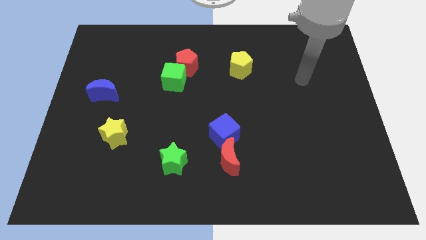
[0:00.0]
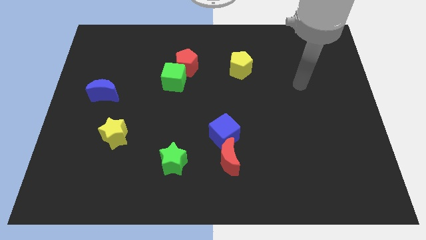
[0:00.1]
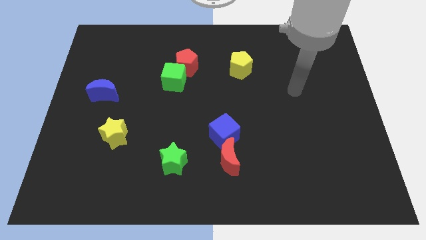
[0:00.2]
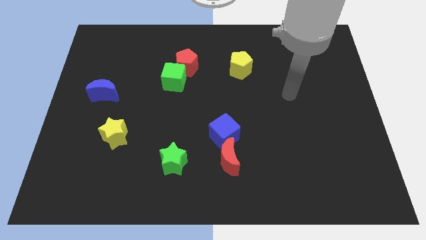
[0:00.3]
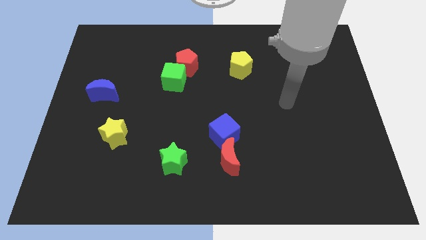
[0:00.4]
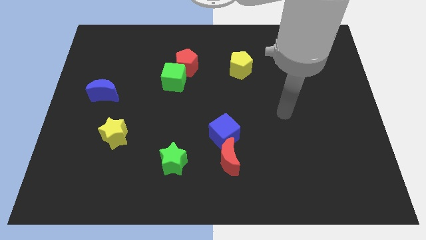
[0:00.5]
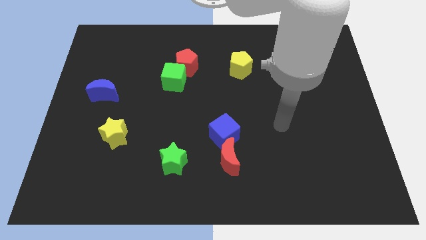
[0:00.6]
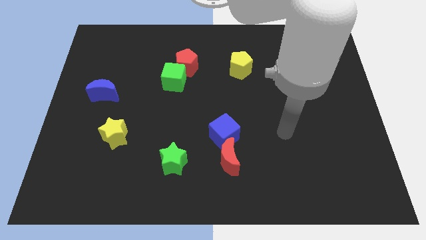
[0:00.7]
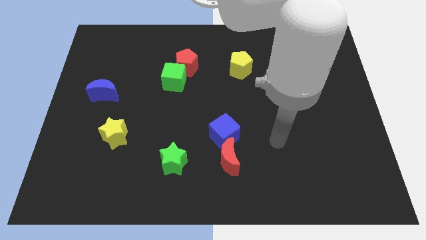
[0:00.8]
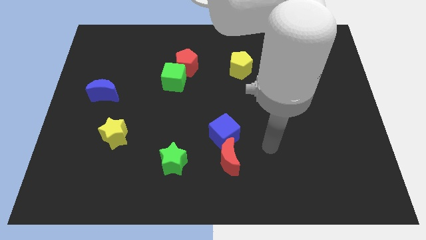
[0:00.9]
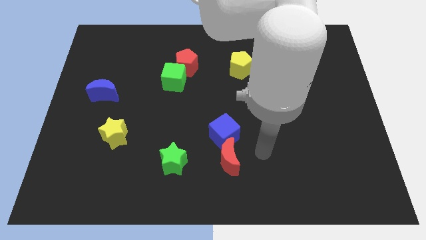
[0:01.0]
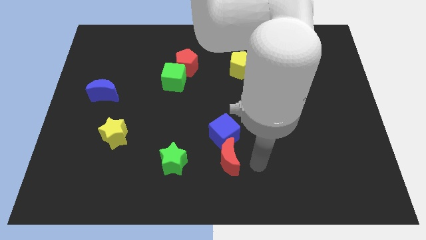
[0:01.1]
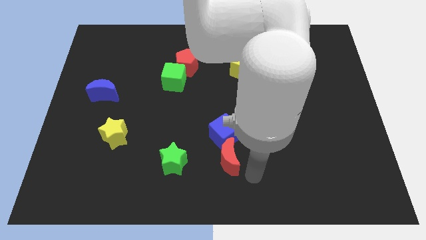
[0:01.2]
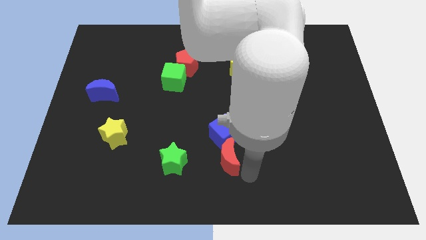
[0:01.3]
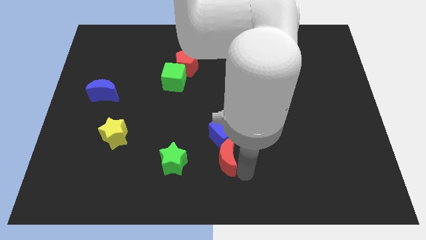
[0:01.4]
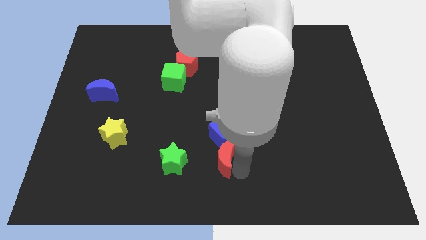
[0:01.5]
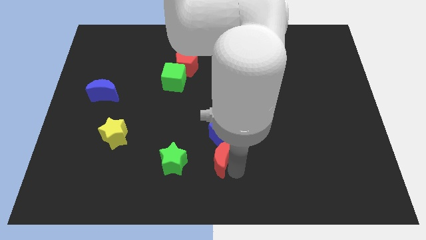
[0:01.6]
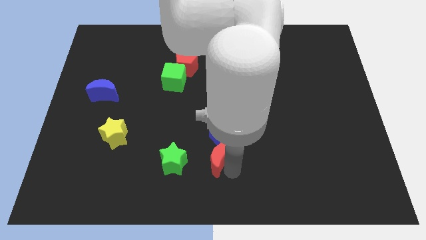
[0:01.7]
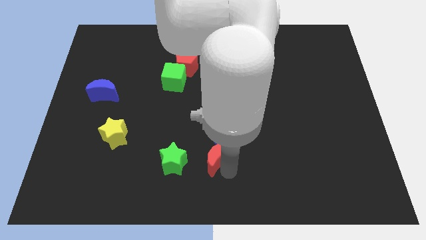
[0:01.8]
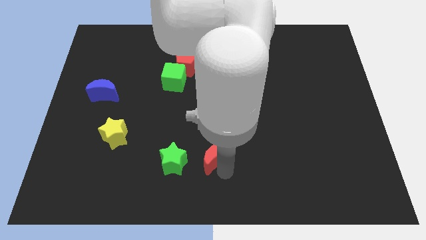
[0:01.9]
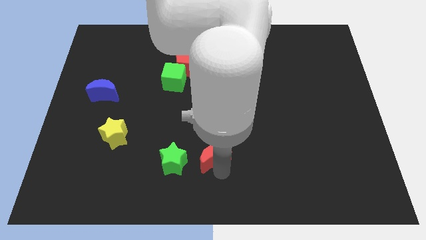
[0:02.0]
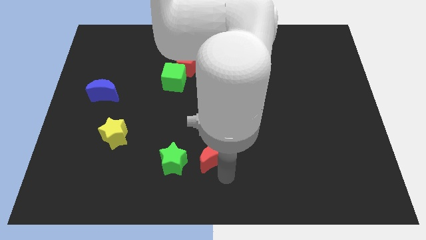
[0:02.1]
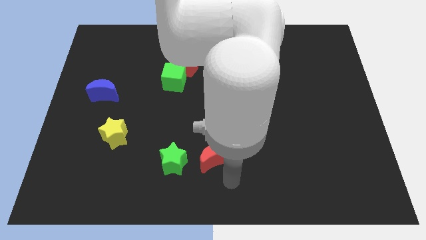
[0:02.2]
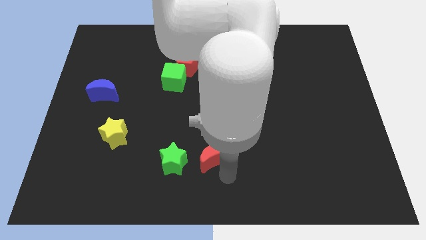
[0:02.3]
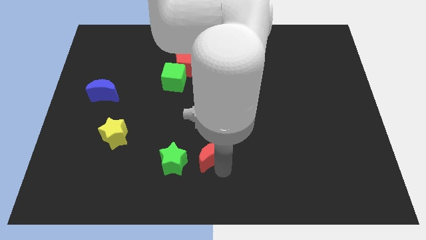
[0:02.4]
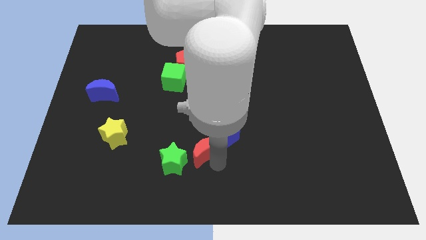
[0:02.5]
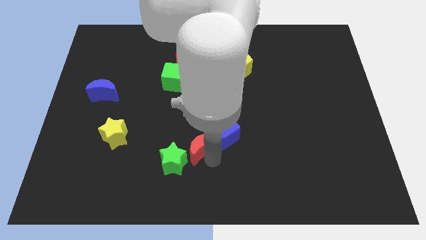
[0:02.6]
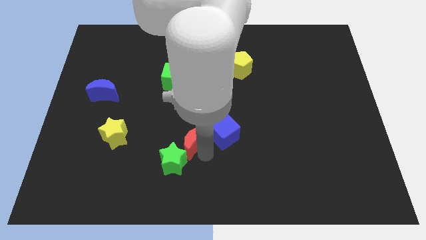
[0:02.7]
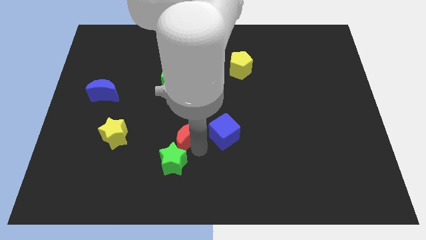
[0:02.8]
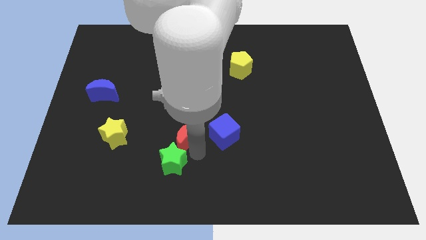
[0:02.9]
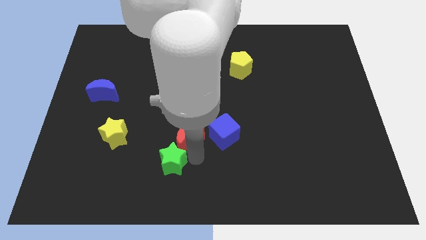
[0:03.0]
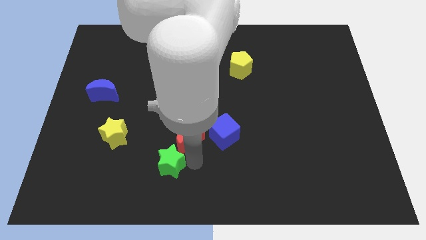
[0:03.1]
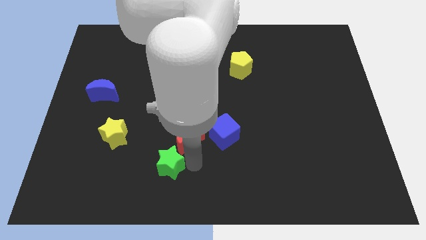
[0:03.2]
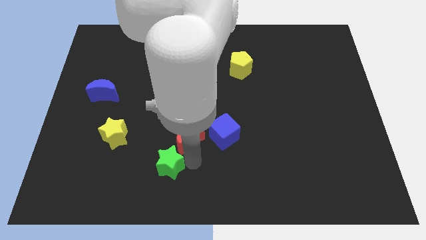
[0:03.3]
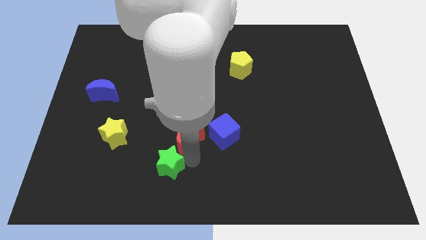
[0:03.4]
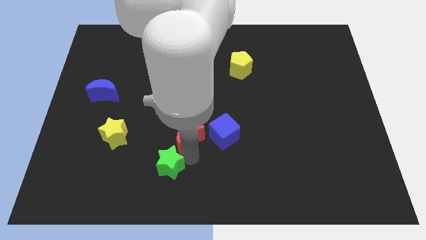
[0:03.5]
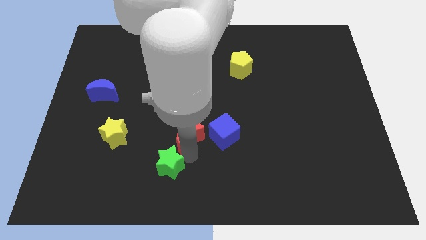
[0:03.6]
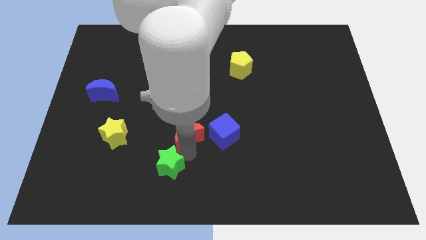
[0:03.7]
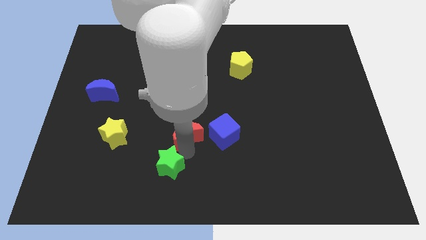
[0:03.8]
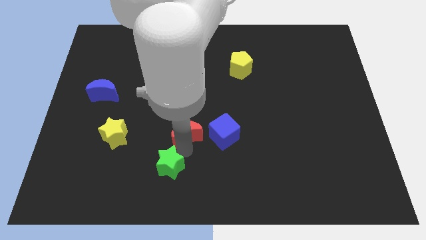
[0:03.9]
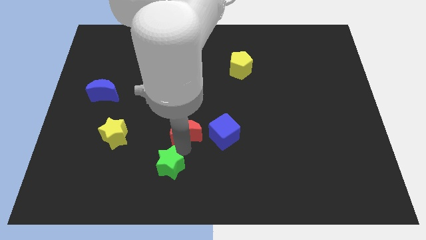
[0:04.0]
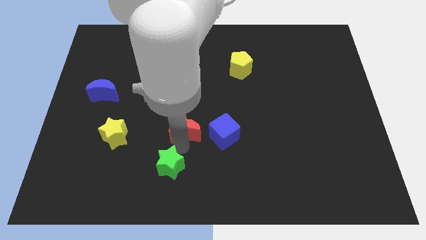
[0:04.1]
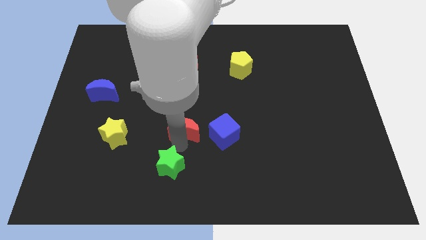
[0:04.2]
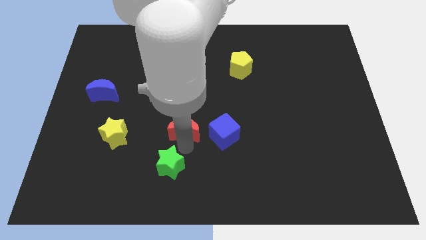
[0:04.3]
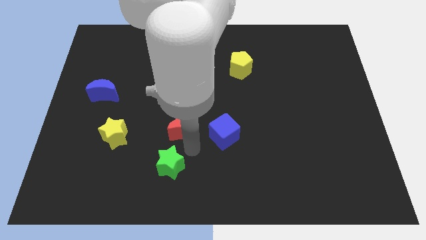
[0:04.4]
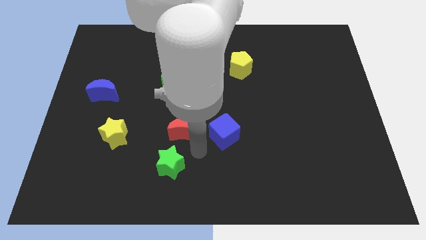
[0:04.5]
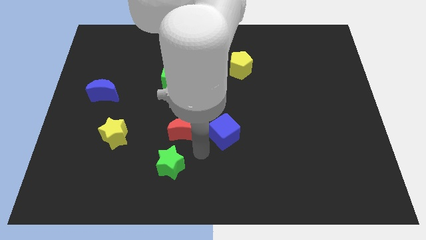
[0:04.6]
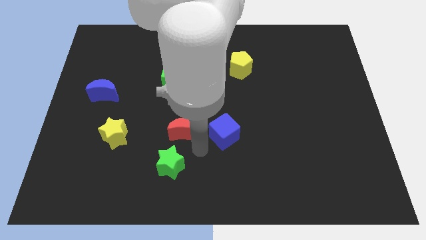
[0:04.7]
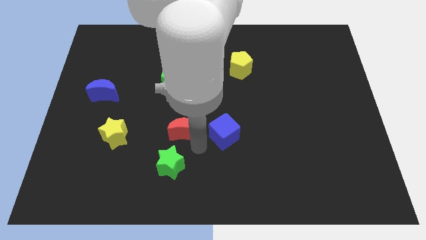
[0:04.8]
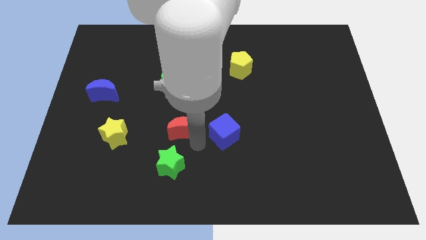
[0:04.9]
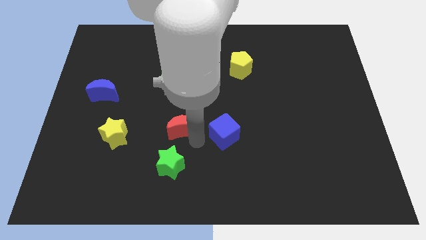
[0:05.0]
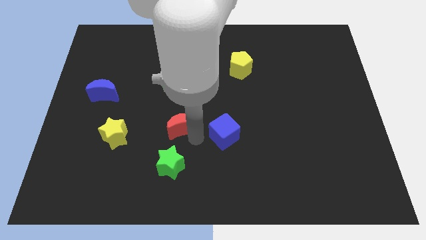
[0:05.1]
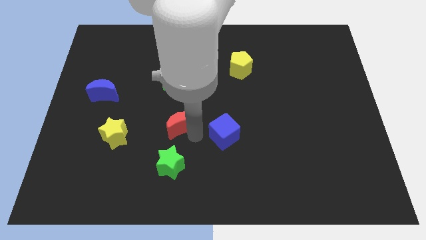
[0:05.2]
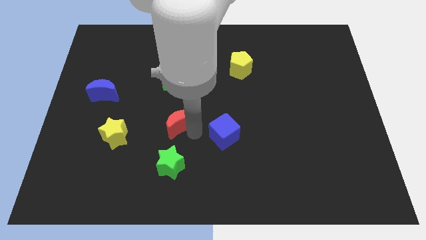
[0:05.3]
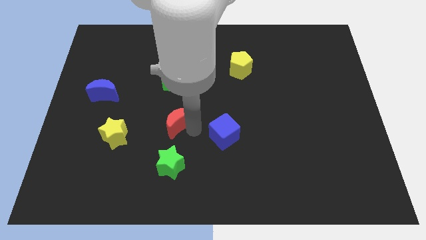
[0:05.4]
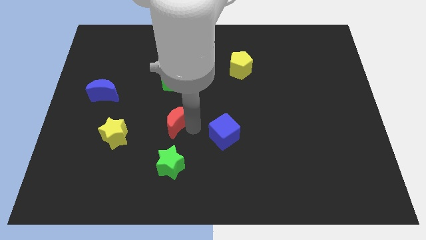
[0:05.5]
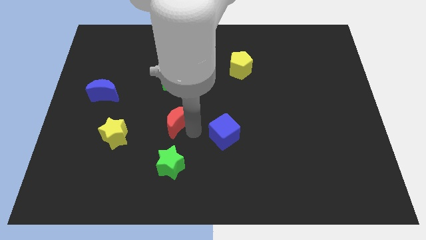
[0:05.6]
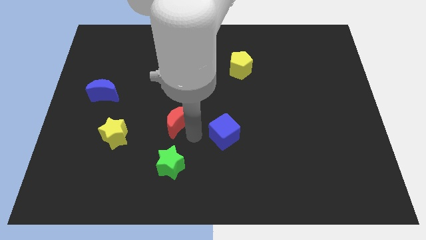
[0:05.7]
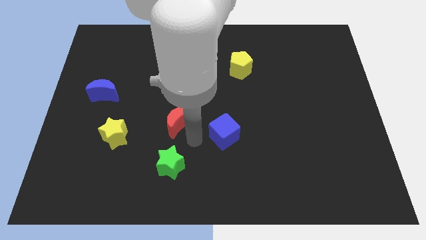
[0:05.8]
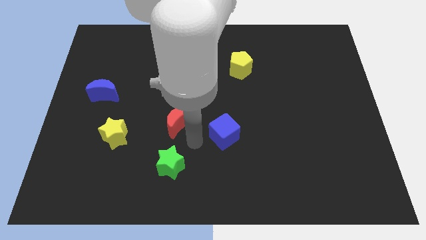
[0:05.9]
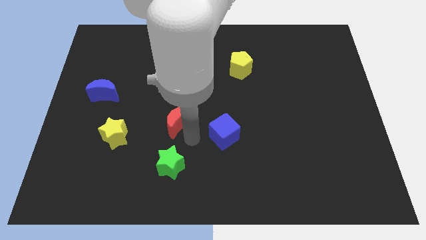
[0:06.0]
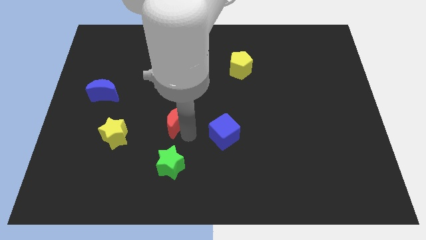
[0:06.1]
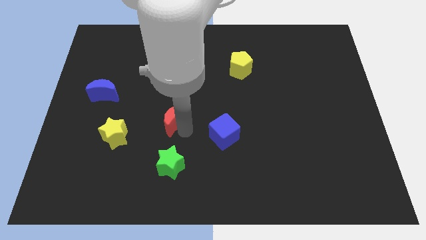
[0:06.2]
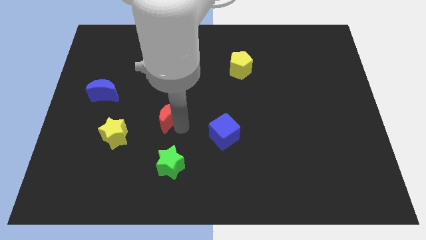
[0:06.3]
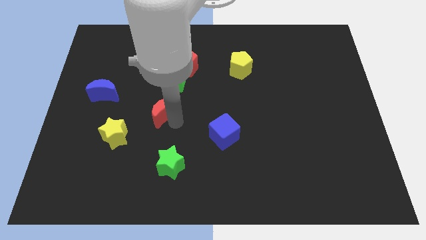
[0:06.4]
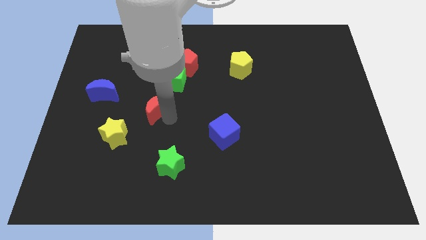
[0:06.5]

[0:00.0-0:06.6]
slide the red moon to the bottom left of the green cube
